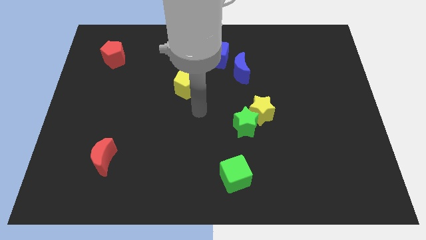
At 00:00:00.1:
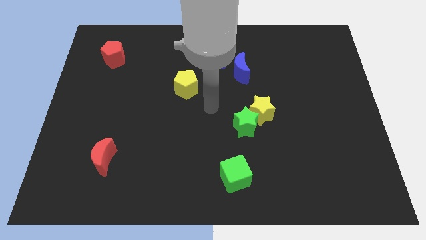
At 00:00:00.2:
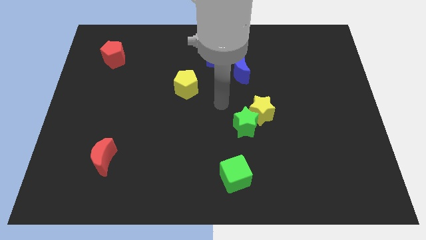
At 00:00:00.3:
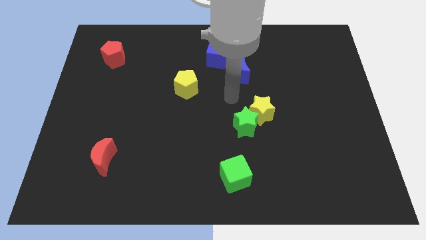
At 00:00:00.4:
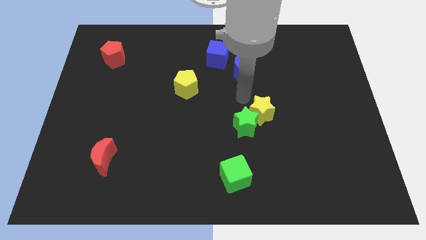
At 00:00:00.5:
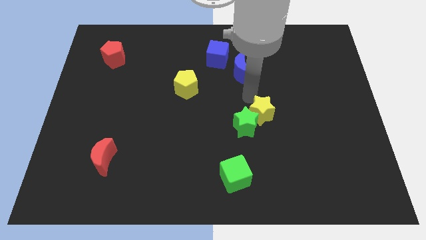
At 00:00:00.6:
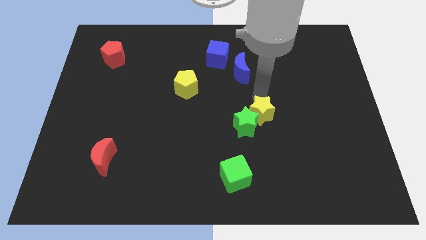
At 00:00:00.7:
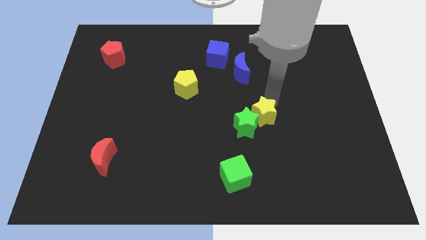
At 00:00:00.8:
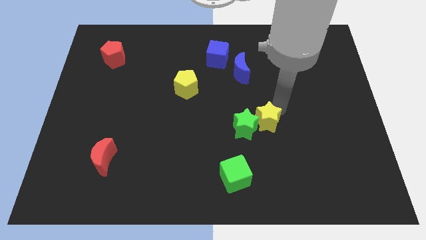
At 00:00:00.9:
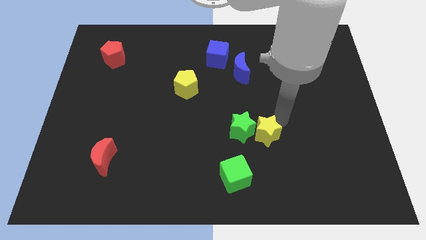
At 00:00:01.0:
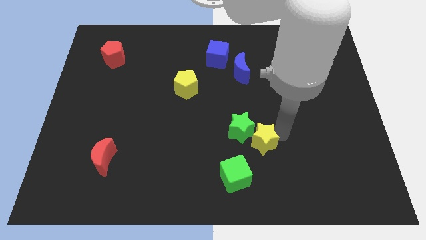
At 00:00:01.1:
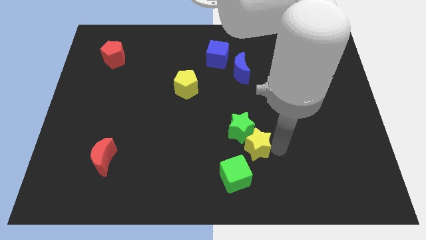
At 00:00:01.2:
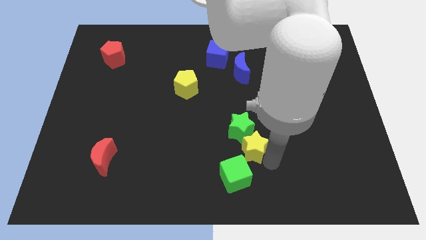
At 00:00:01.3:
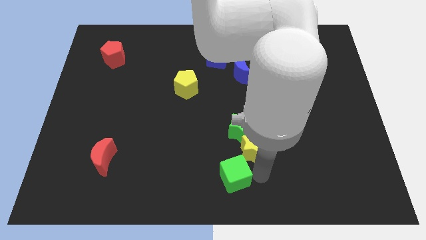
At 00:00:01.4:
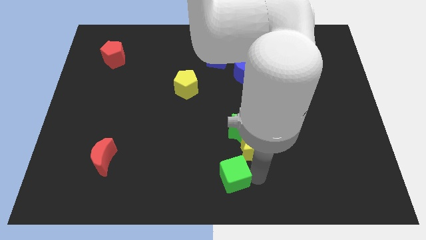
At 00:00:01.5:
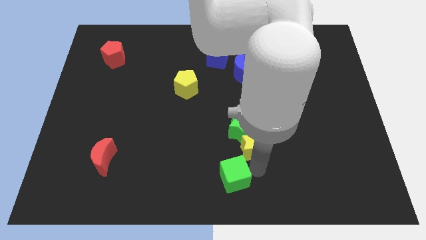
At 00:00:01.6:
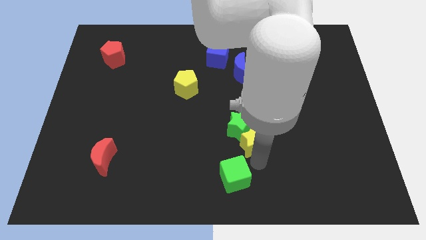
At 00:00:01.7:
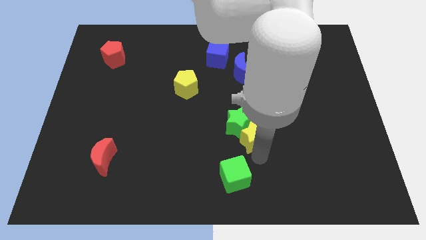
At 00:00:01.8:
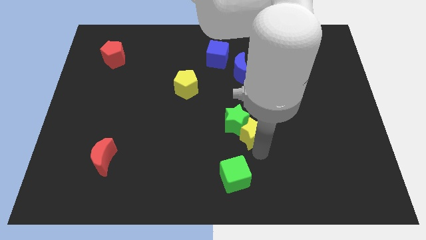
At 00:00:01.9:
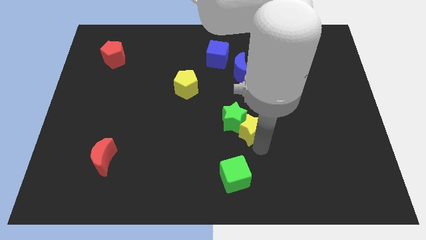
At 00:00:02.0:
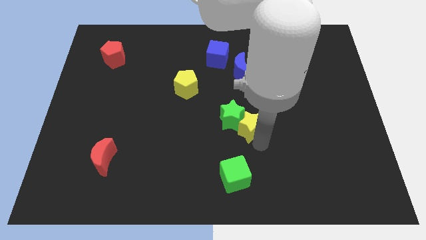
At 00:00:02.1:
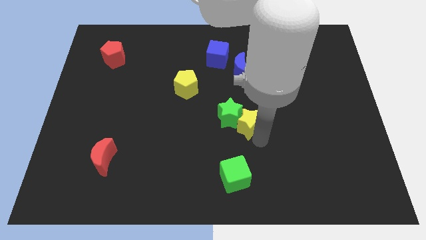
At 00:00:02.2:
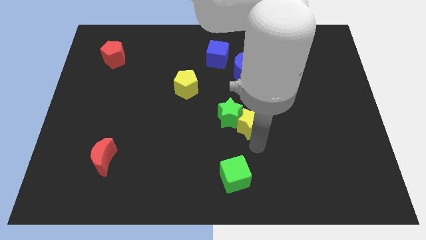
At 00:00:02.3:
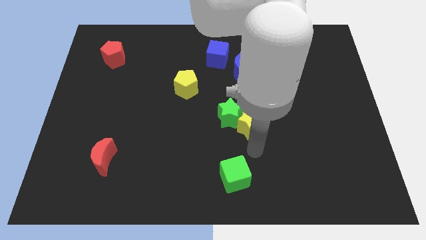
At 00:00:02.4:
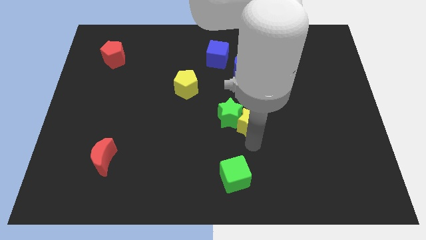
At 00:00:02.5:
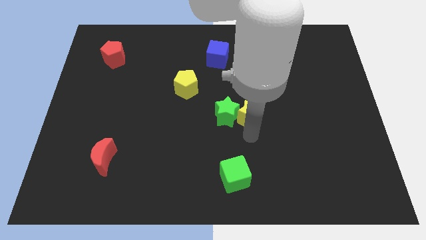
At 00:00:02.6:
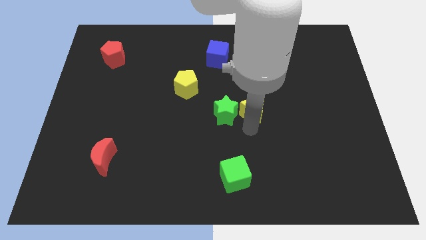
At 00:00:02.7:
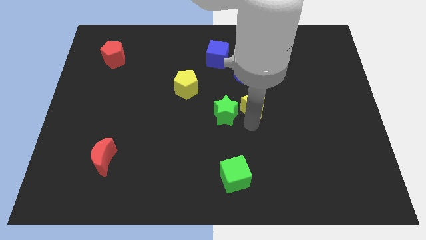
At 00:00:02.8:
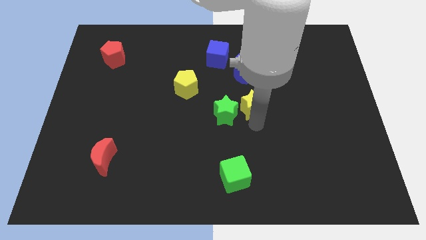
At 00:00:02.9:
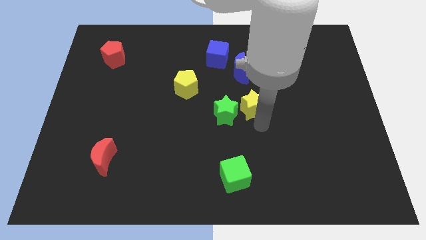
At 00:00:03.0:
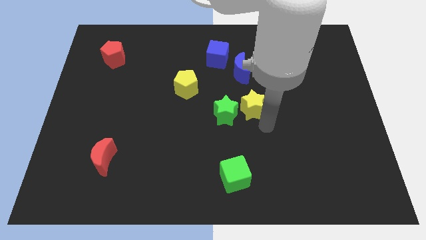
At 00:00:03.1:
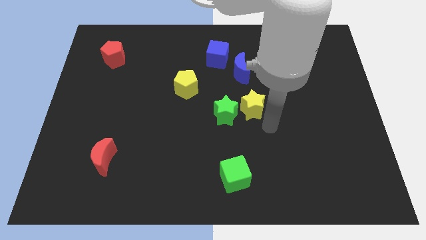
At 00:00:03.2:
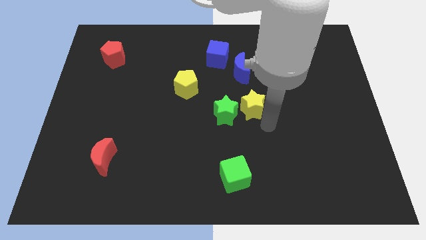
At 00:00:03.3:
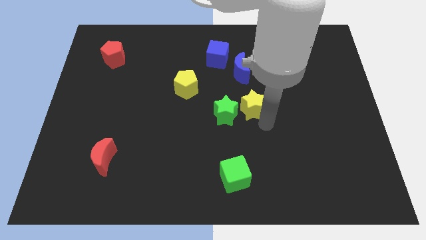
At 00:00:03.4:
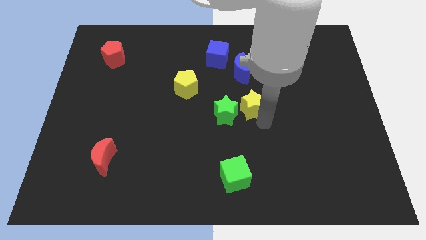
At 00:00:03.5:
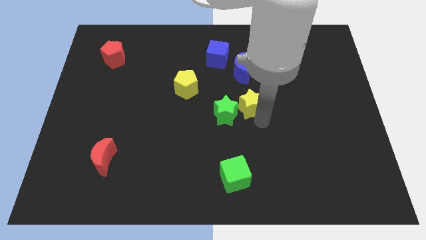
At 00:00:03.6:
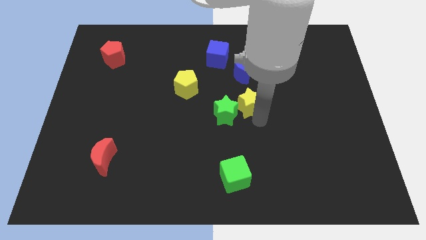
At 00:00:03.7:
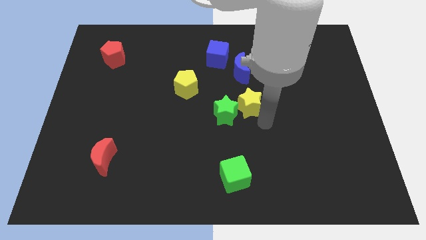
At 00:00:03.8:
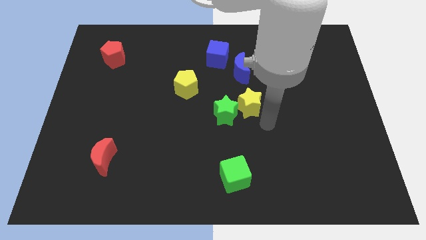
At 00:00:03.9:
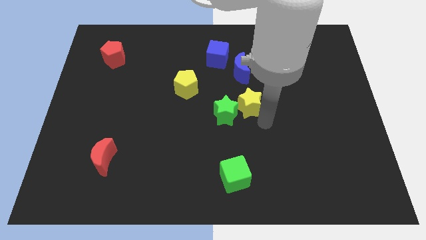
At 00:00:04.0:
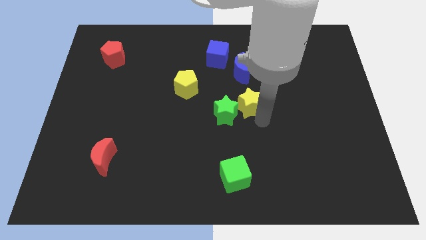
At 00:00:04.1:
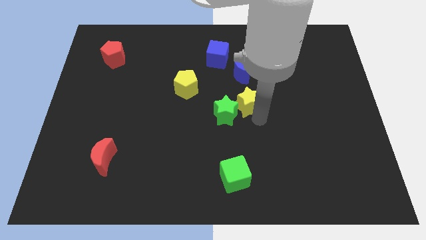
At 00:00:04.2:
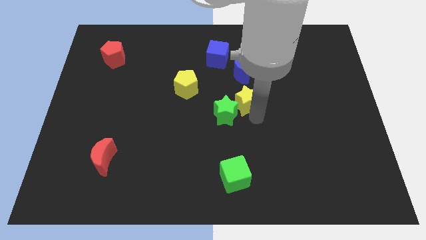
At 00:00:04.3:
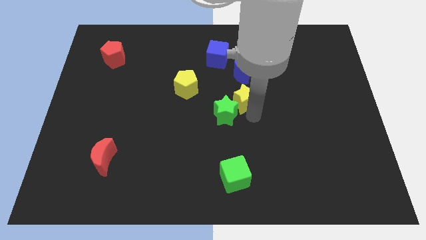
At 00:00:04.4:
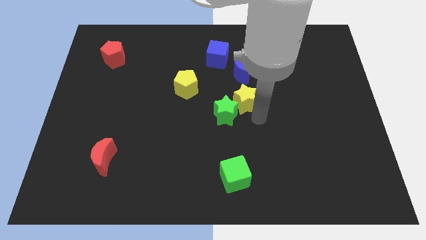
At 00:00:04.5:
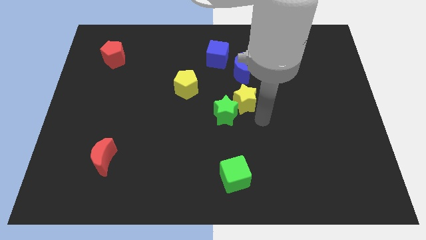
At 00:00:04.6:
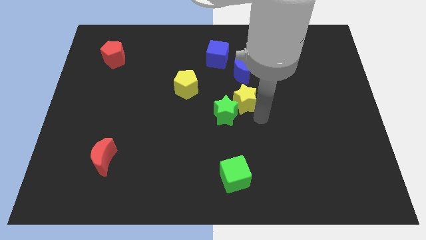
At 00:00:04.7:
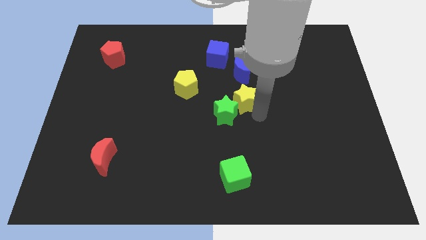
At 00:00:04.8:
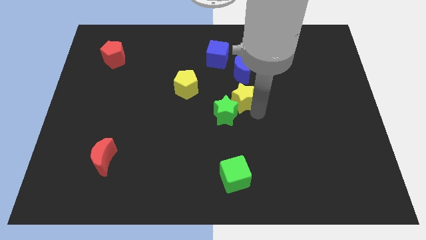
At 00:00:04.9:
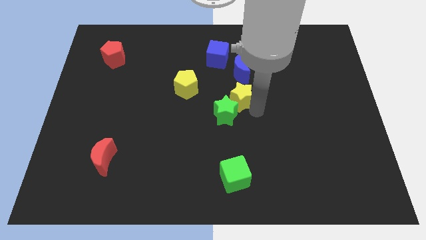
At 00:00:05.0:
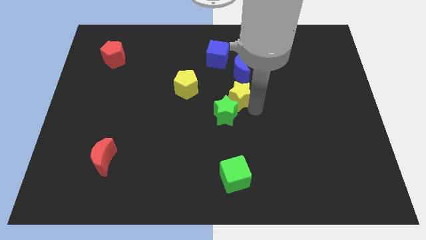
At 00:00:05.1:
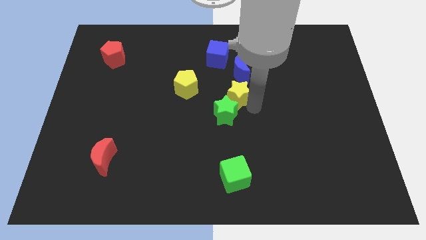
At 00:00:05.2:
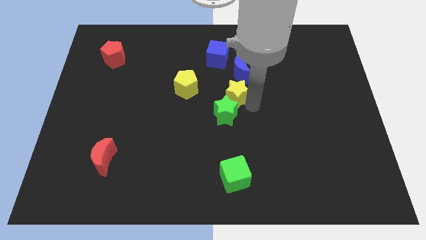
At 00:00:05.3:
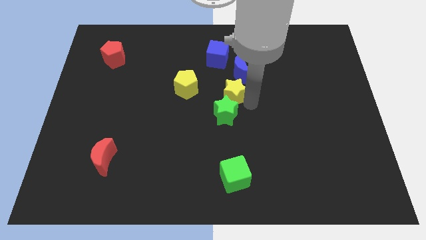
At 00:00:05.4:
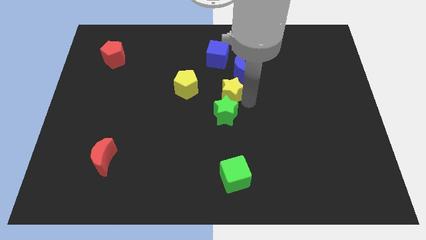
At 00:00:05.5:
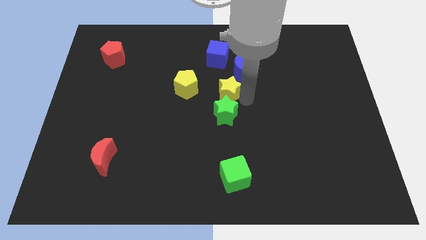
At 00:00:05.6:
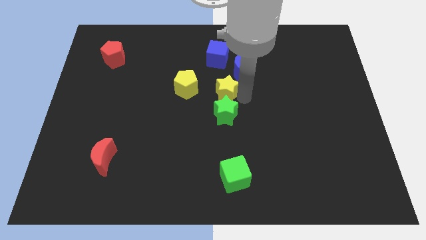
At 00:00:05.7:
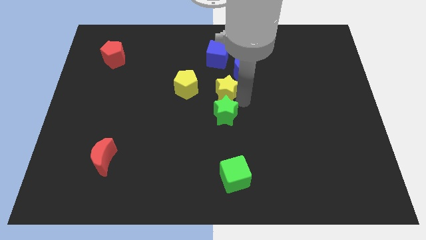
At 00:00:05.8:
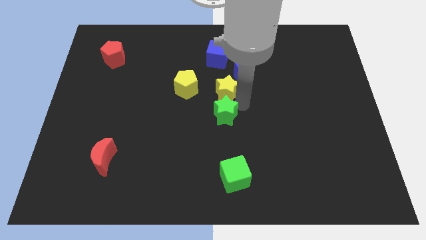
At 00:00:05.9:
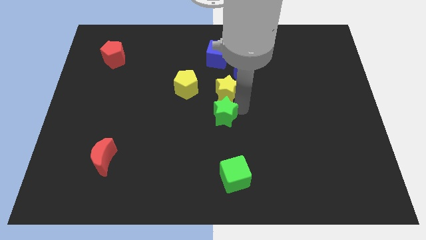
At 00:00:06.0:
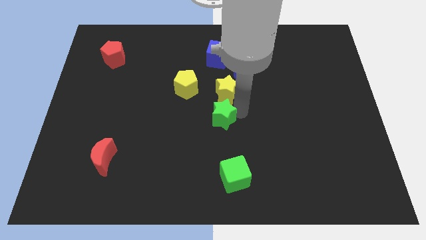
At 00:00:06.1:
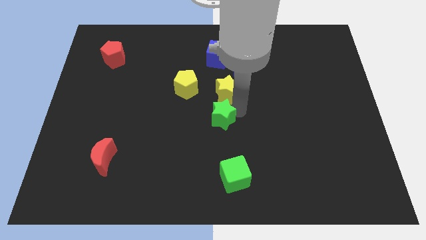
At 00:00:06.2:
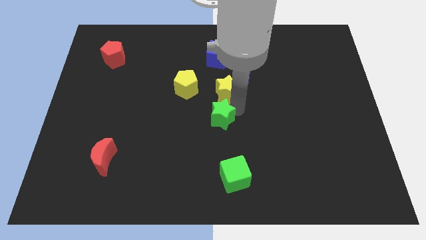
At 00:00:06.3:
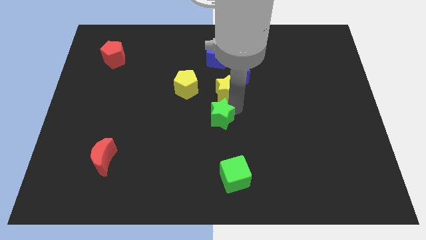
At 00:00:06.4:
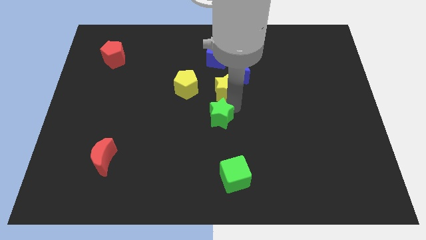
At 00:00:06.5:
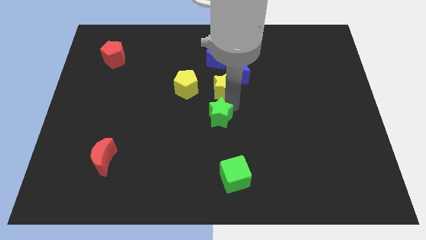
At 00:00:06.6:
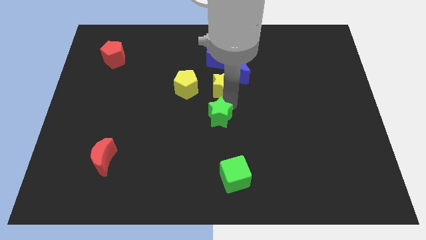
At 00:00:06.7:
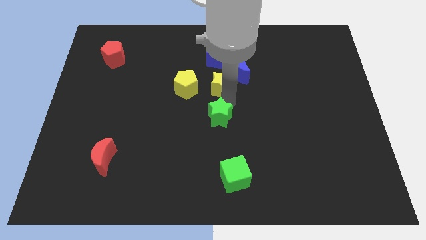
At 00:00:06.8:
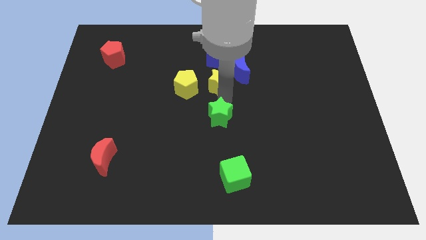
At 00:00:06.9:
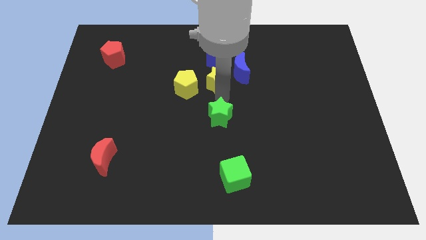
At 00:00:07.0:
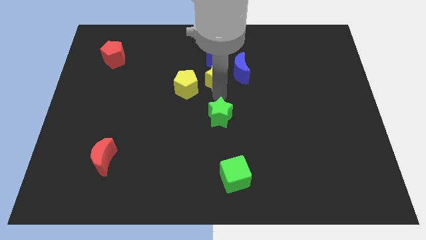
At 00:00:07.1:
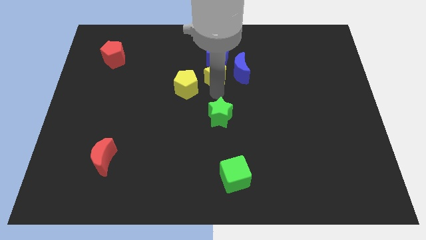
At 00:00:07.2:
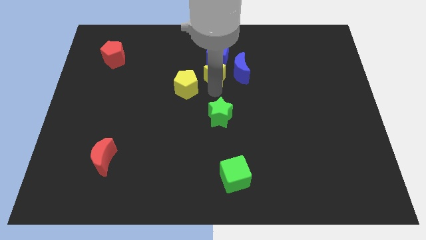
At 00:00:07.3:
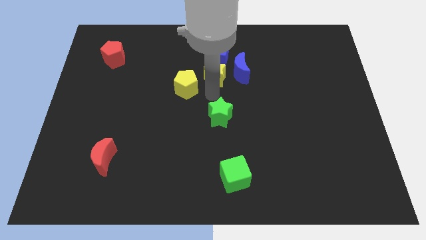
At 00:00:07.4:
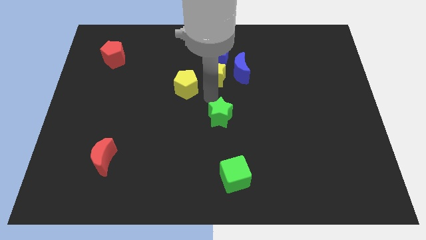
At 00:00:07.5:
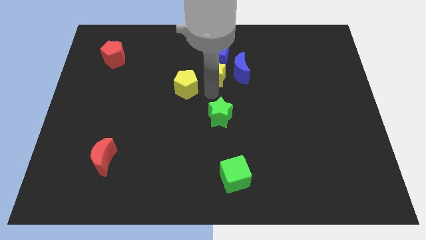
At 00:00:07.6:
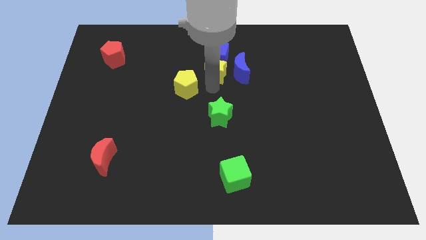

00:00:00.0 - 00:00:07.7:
slide the yellow star close to the blue cube
